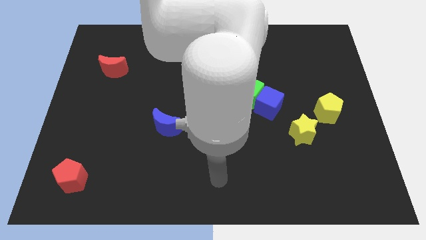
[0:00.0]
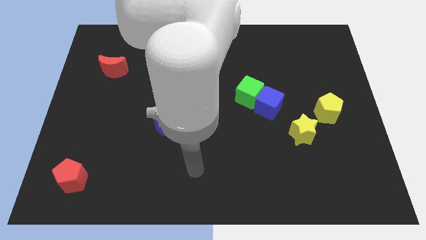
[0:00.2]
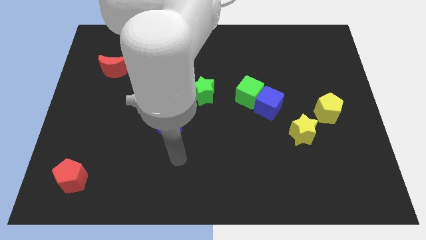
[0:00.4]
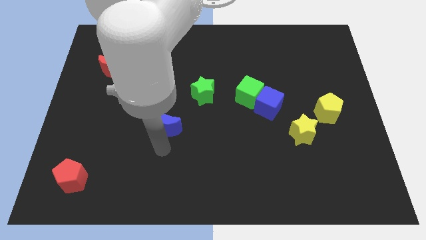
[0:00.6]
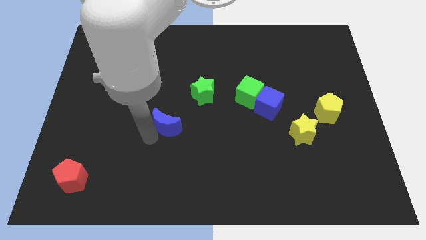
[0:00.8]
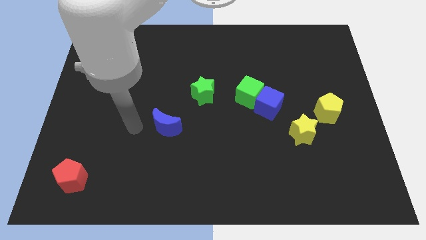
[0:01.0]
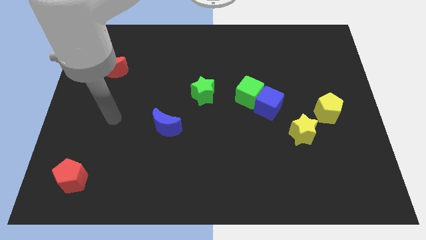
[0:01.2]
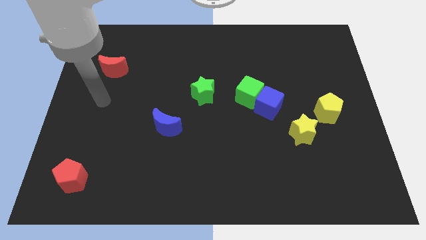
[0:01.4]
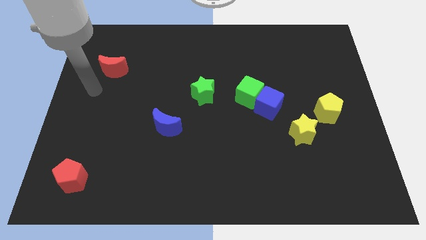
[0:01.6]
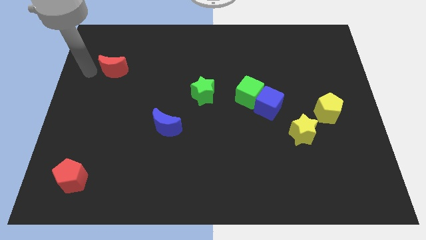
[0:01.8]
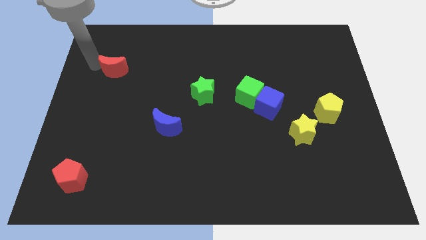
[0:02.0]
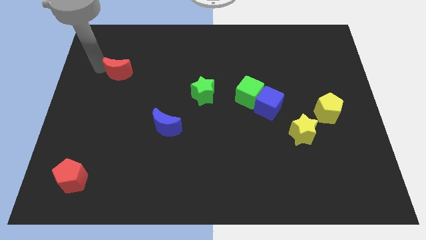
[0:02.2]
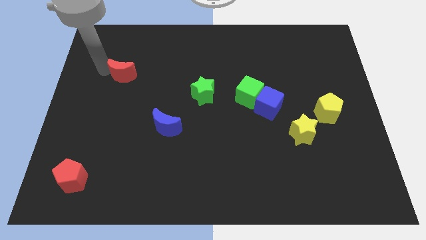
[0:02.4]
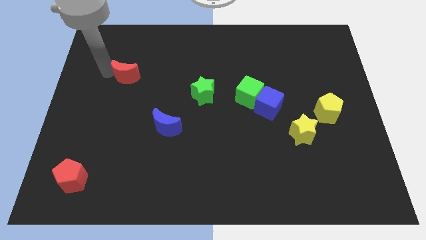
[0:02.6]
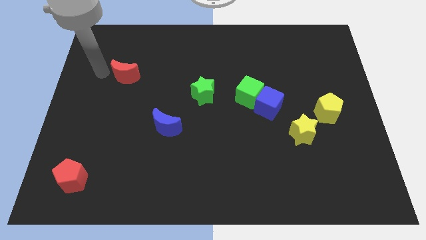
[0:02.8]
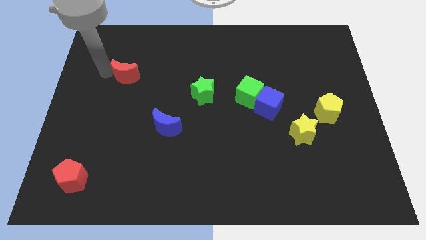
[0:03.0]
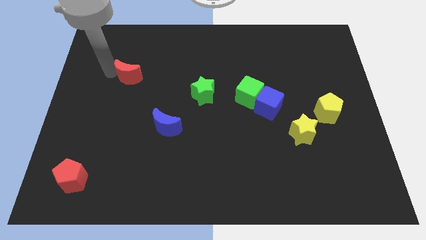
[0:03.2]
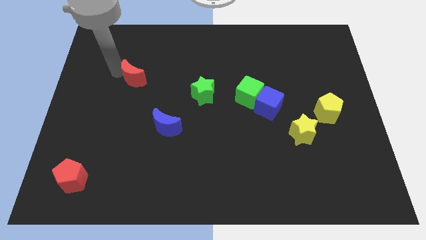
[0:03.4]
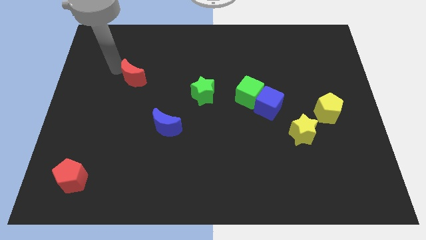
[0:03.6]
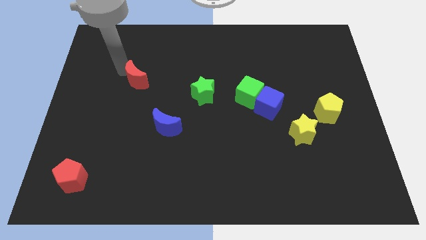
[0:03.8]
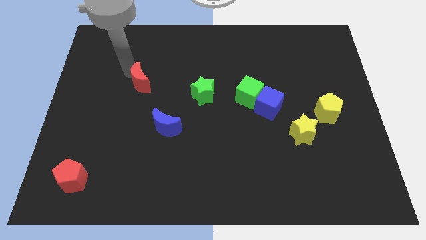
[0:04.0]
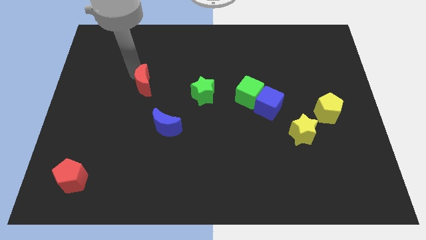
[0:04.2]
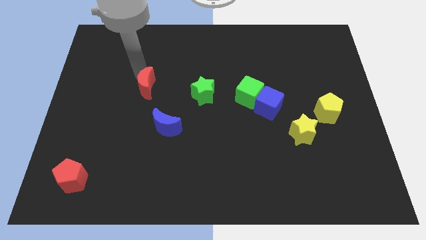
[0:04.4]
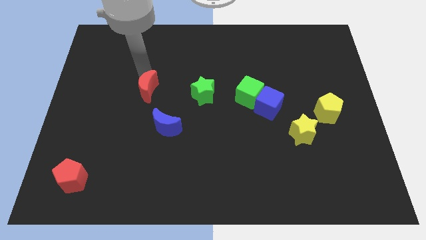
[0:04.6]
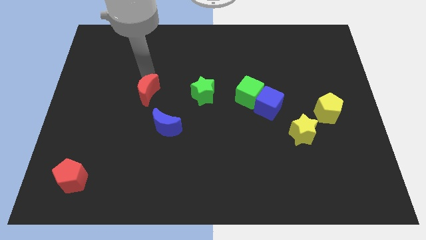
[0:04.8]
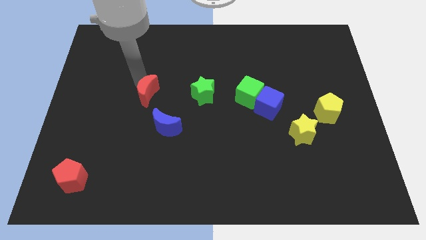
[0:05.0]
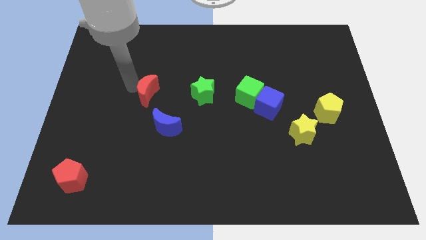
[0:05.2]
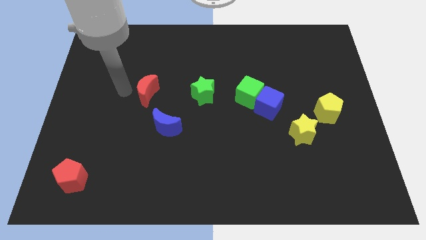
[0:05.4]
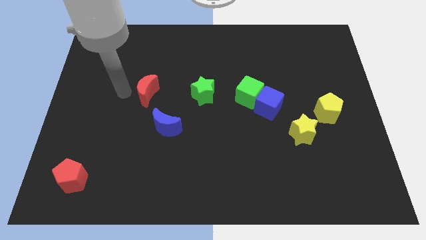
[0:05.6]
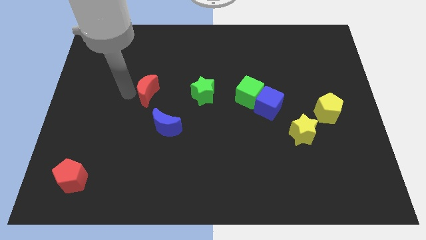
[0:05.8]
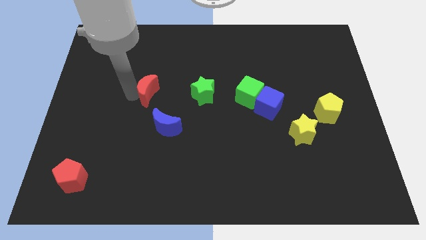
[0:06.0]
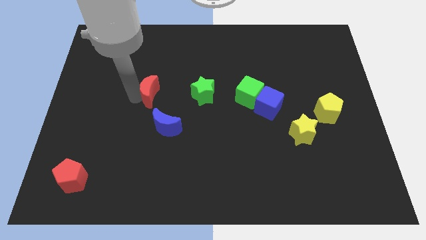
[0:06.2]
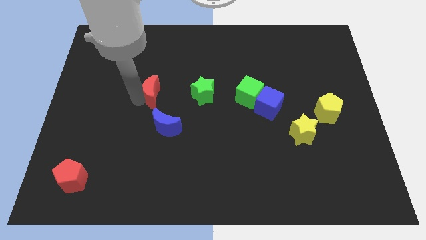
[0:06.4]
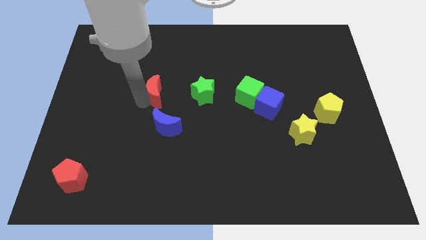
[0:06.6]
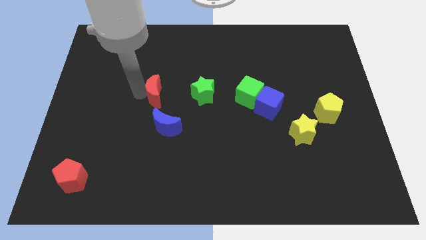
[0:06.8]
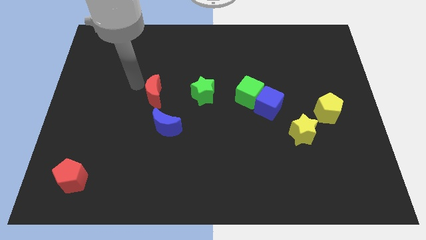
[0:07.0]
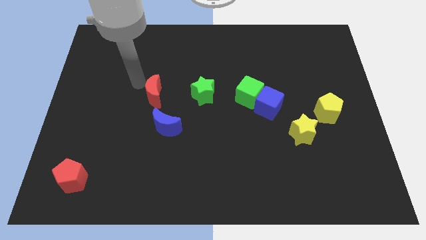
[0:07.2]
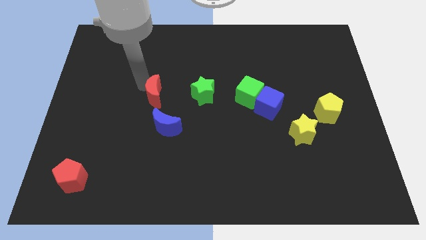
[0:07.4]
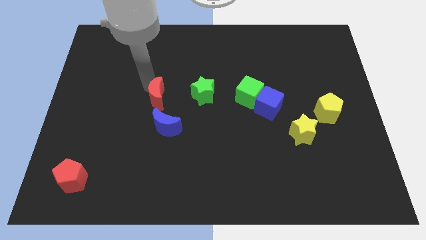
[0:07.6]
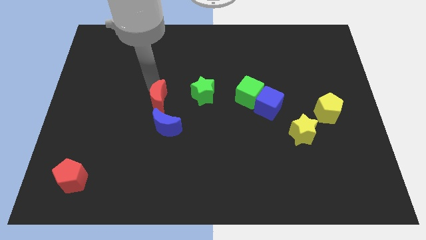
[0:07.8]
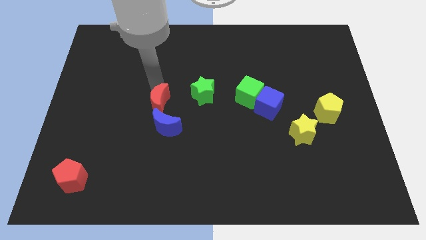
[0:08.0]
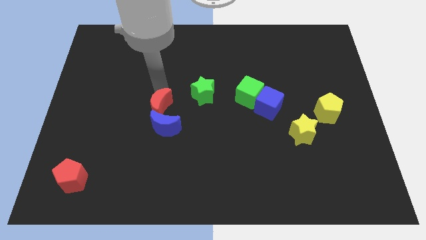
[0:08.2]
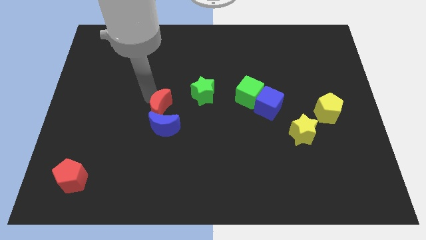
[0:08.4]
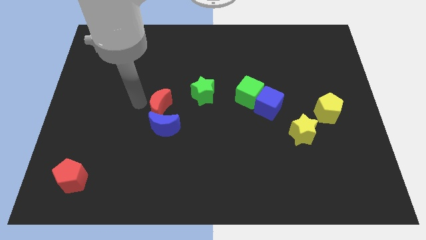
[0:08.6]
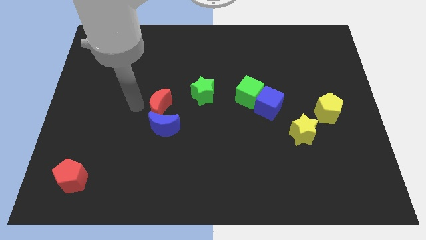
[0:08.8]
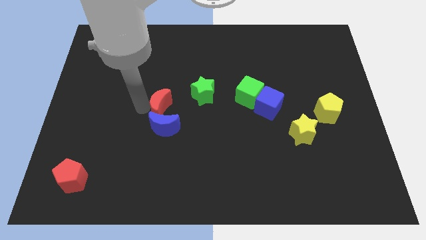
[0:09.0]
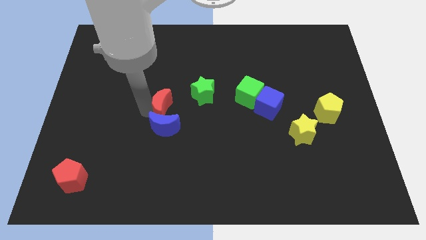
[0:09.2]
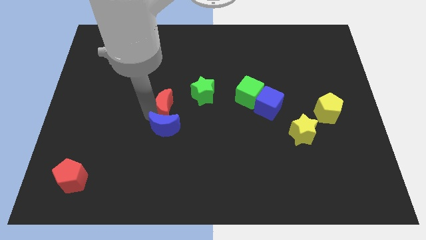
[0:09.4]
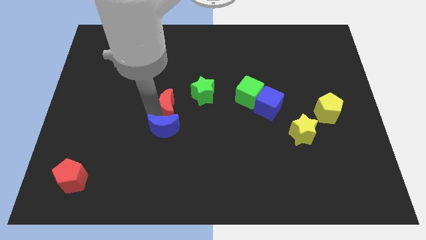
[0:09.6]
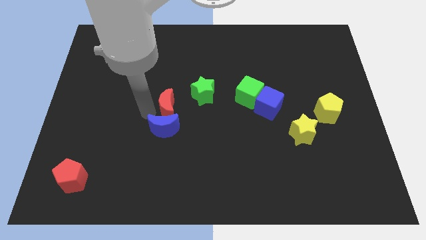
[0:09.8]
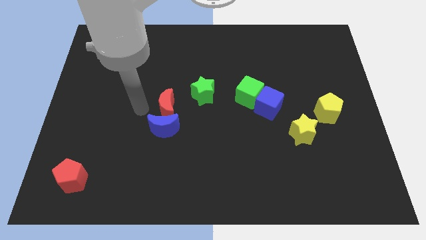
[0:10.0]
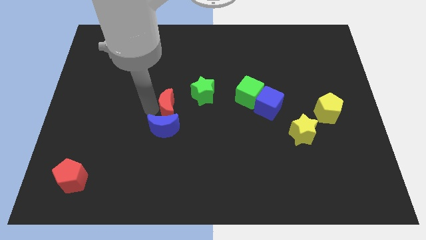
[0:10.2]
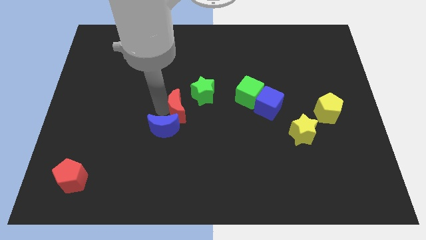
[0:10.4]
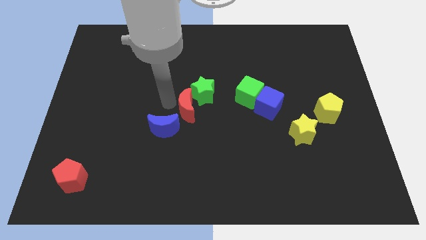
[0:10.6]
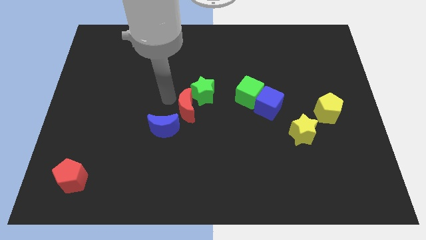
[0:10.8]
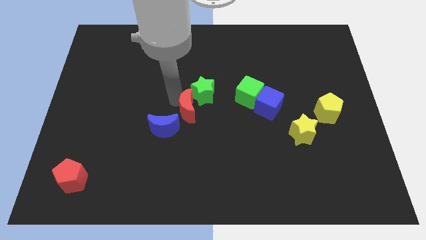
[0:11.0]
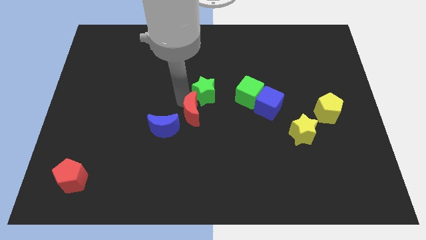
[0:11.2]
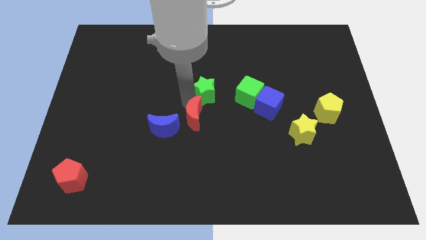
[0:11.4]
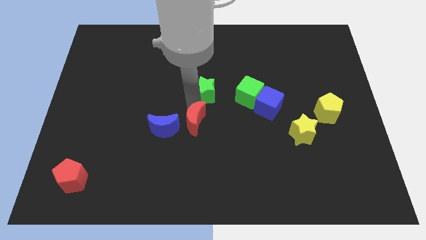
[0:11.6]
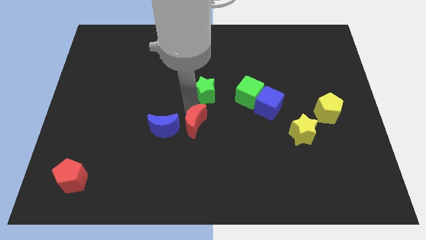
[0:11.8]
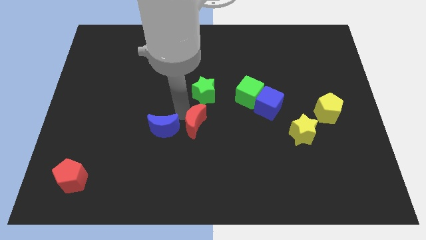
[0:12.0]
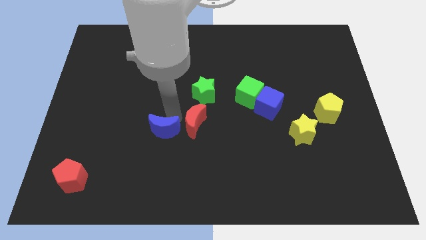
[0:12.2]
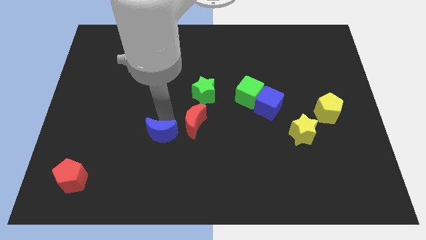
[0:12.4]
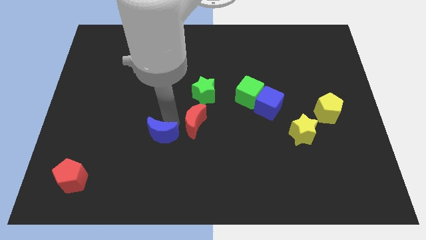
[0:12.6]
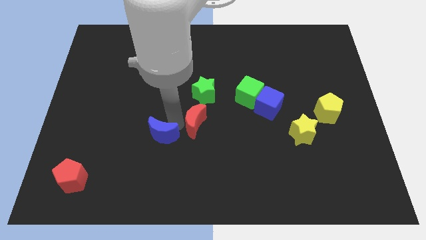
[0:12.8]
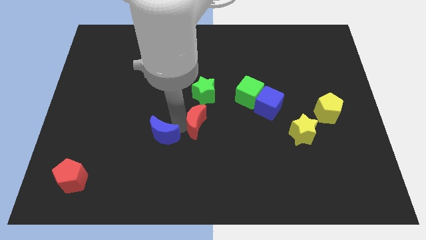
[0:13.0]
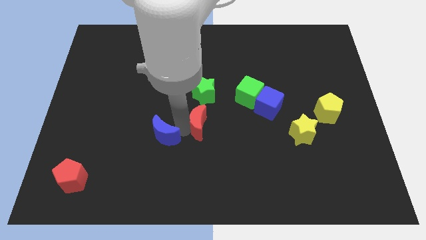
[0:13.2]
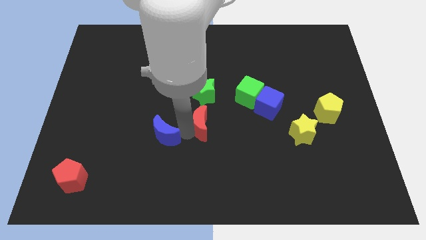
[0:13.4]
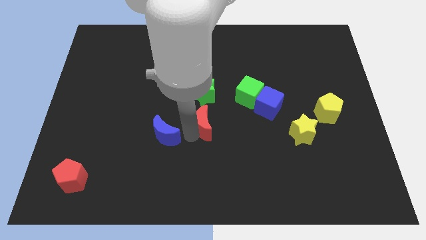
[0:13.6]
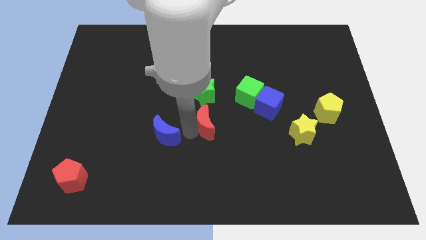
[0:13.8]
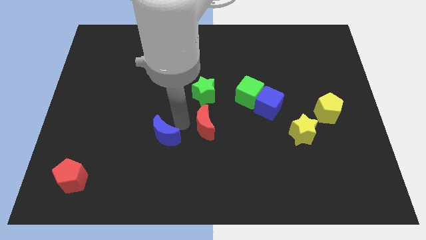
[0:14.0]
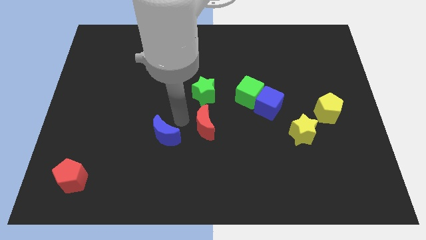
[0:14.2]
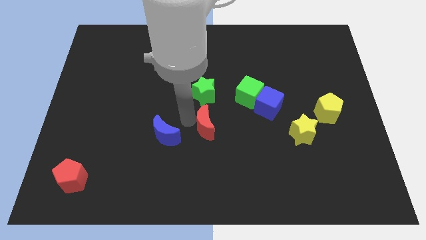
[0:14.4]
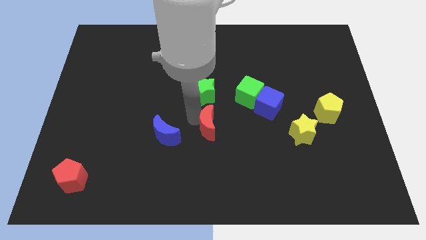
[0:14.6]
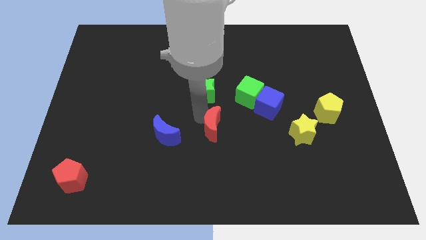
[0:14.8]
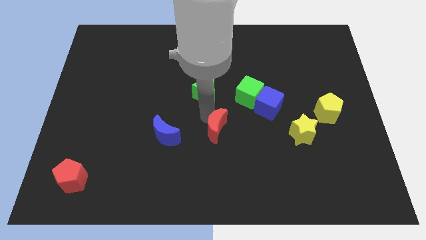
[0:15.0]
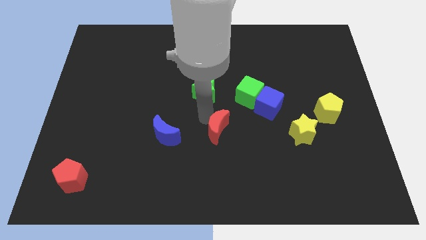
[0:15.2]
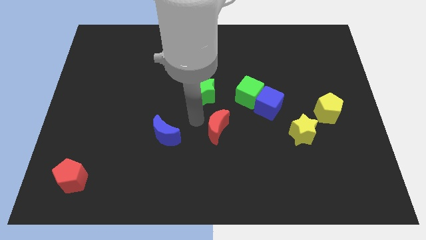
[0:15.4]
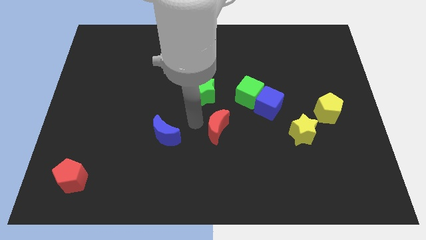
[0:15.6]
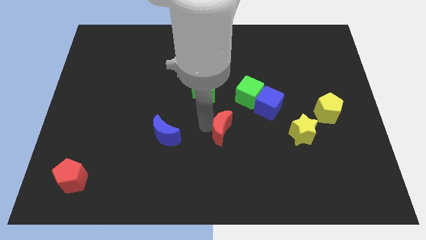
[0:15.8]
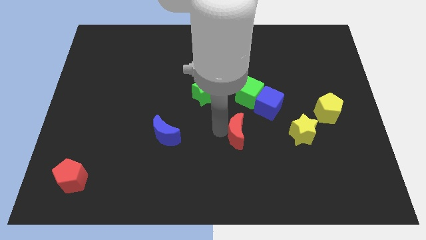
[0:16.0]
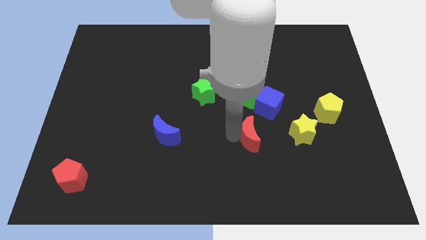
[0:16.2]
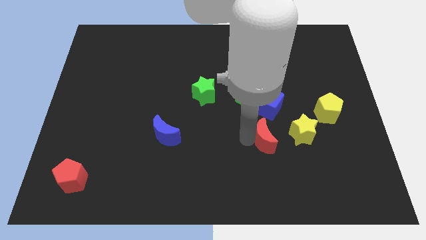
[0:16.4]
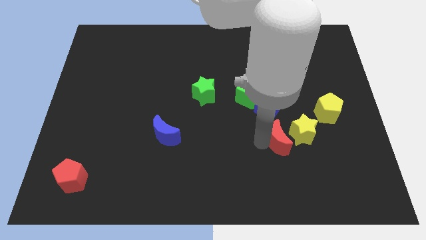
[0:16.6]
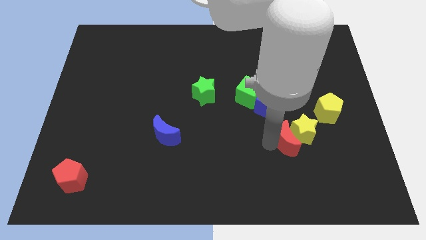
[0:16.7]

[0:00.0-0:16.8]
push the red moon close to the yellow star
